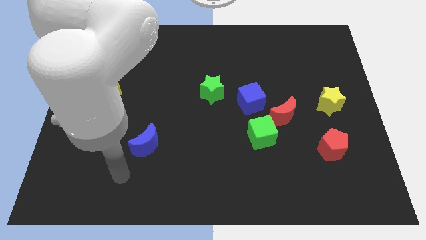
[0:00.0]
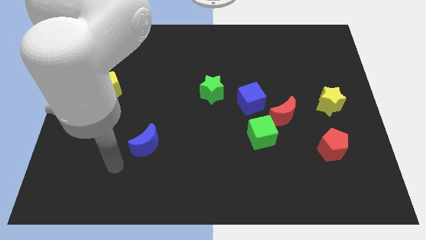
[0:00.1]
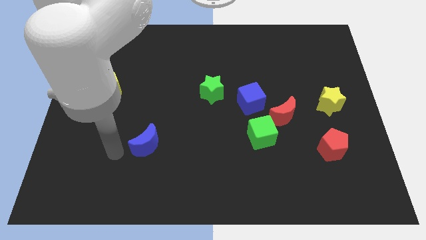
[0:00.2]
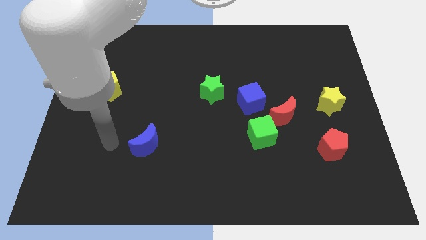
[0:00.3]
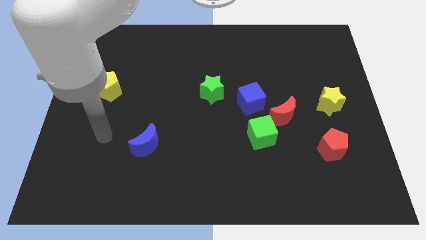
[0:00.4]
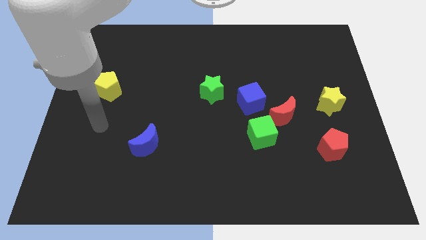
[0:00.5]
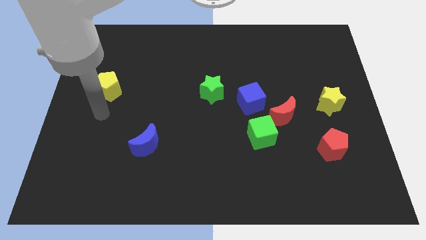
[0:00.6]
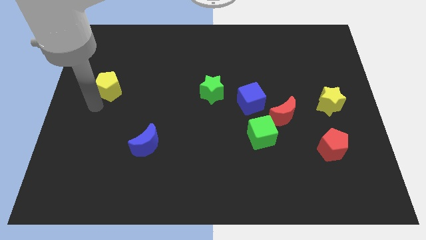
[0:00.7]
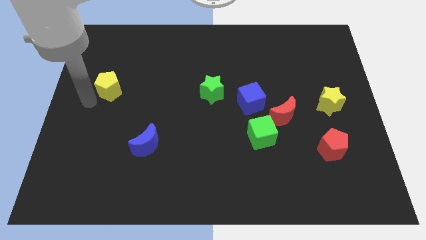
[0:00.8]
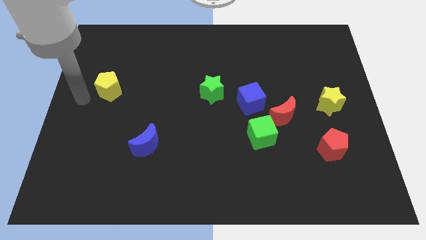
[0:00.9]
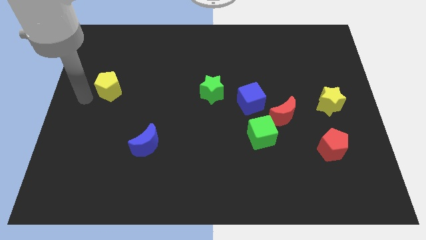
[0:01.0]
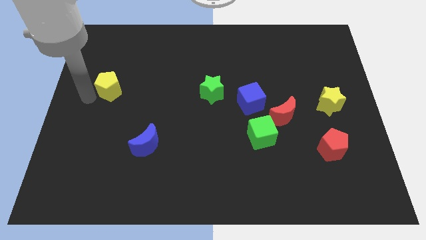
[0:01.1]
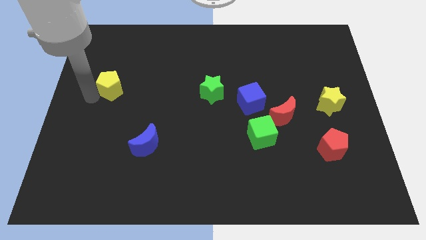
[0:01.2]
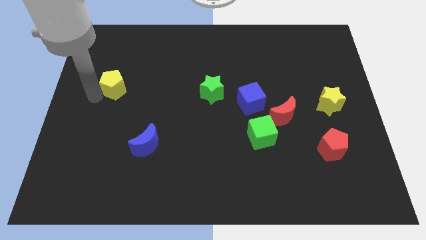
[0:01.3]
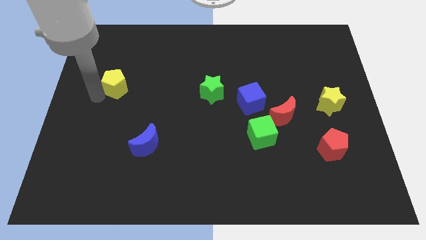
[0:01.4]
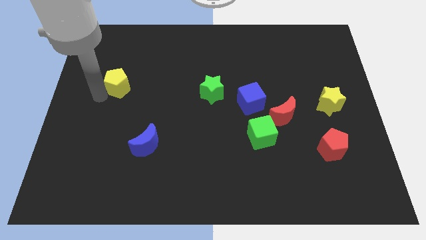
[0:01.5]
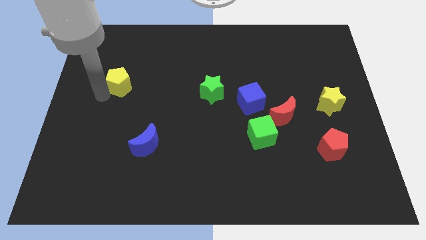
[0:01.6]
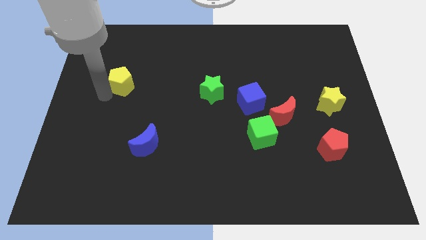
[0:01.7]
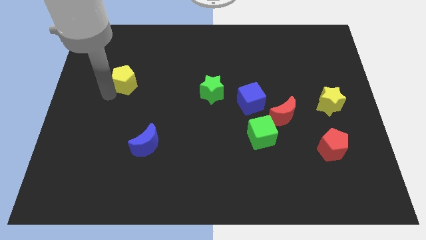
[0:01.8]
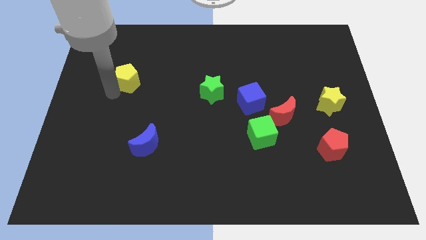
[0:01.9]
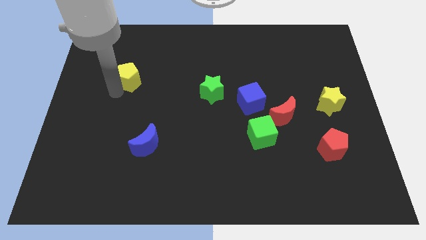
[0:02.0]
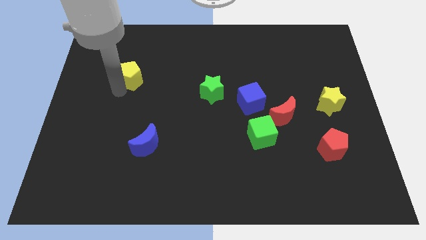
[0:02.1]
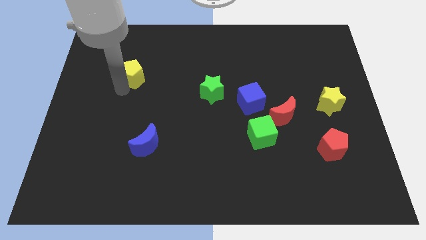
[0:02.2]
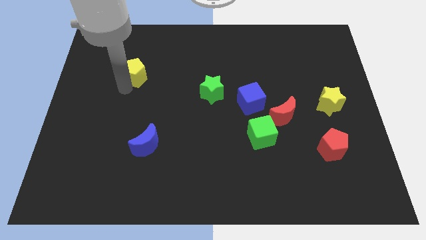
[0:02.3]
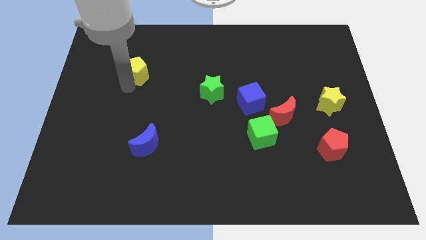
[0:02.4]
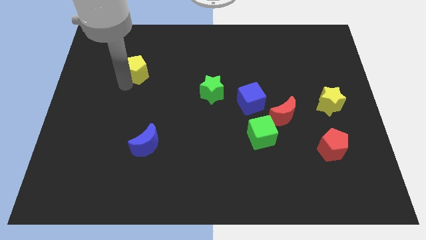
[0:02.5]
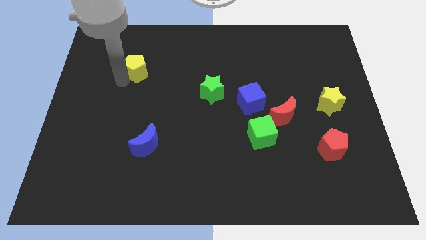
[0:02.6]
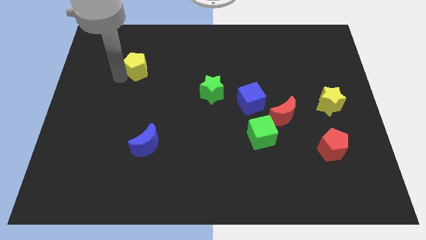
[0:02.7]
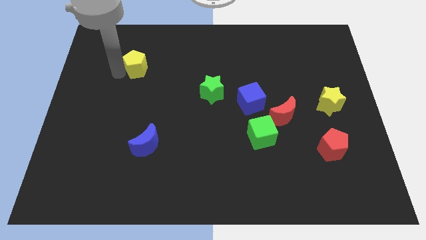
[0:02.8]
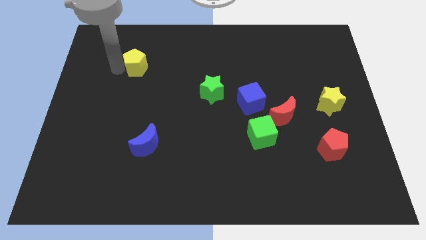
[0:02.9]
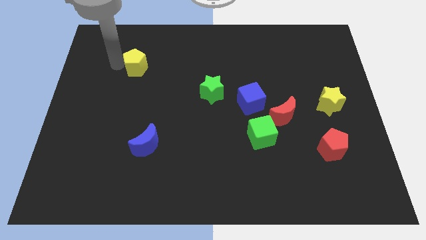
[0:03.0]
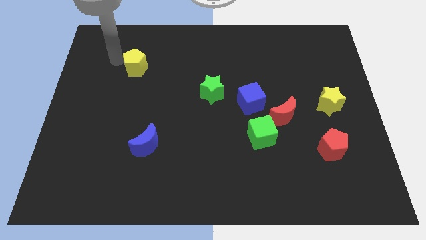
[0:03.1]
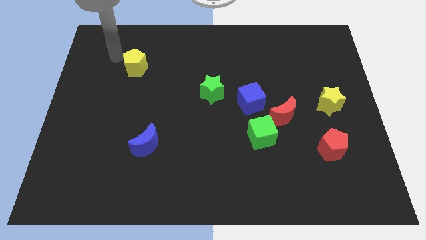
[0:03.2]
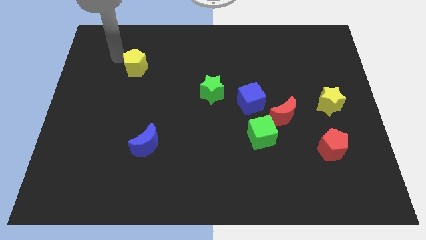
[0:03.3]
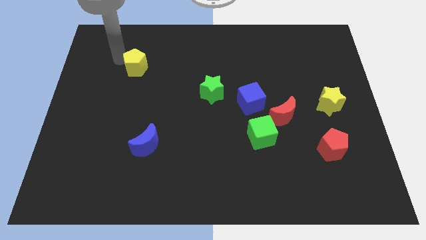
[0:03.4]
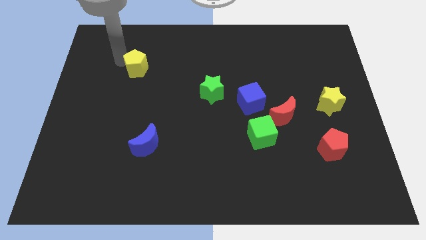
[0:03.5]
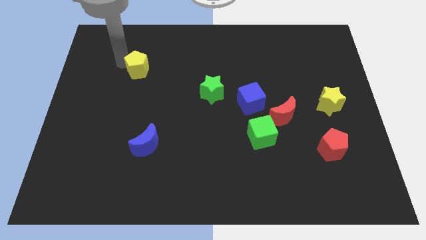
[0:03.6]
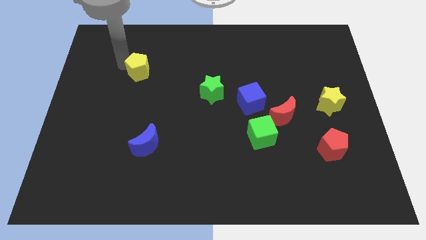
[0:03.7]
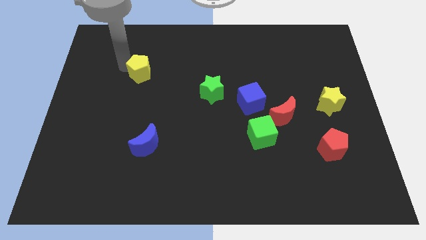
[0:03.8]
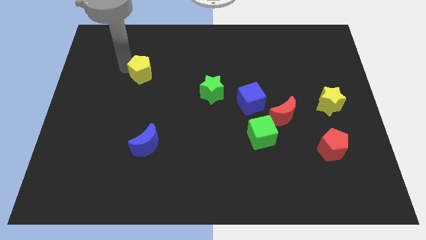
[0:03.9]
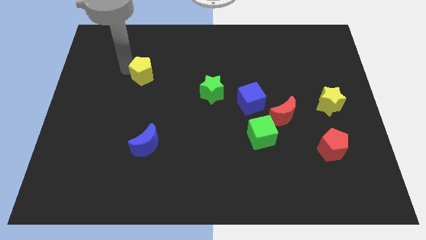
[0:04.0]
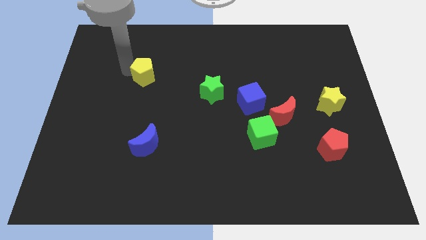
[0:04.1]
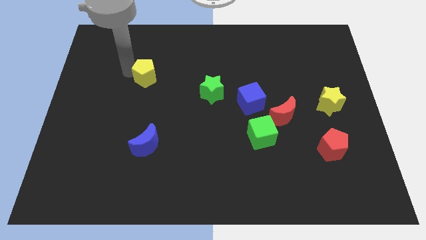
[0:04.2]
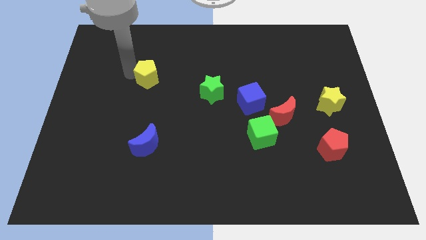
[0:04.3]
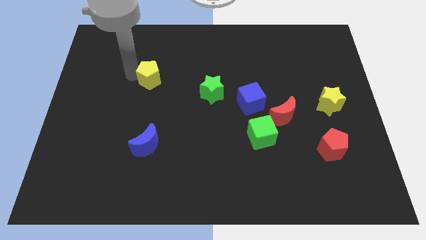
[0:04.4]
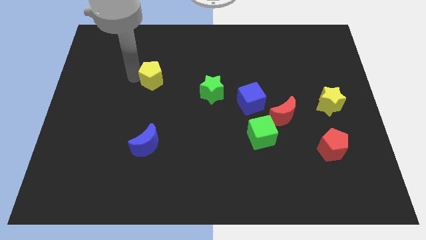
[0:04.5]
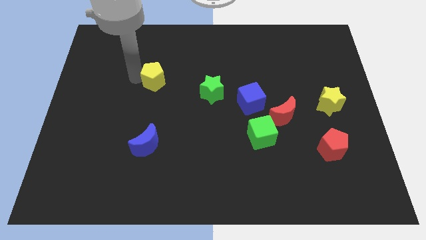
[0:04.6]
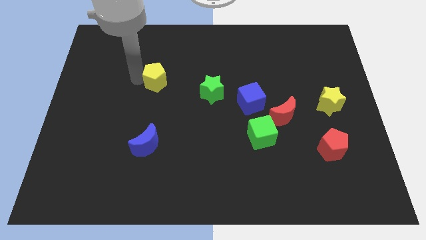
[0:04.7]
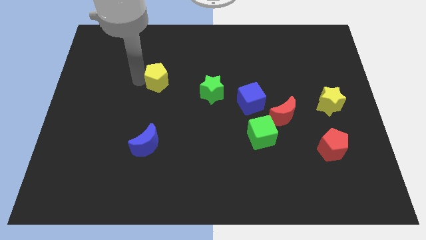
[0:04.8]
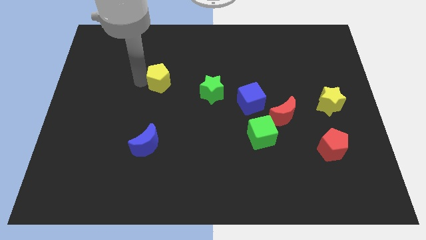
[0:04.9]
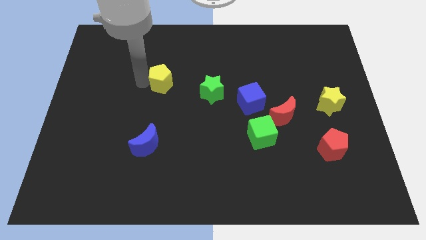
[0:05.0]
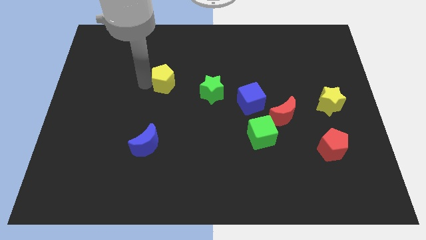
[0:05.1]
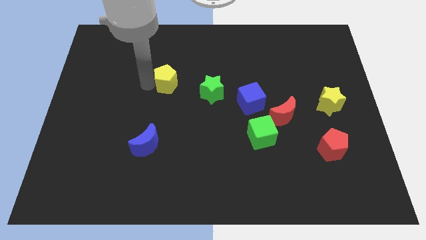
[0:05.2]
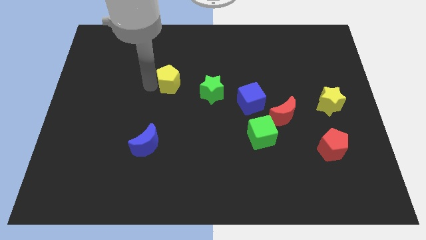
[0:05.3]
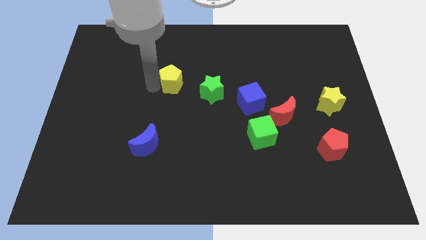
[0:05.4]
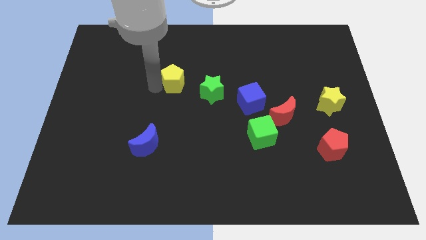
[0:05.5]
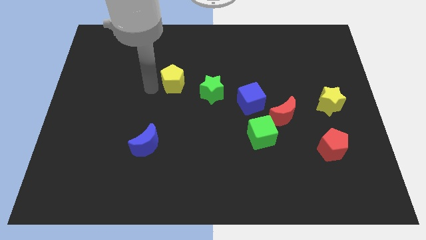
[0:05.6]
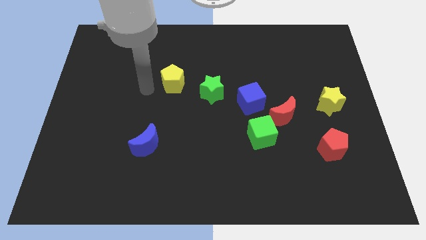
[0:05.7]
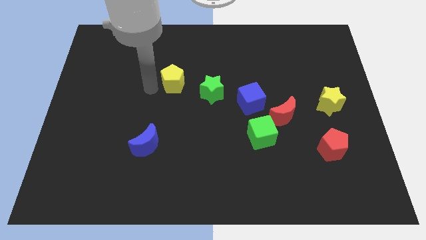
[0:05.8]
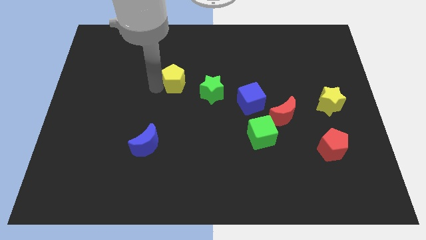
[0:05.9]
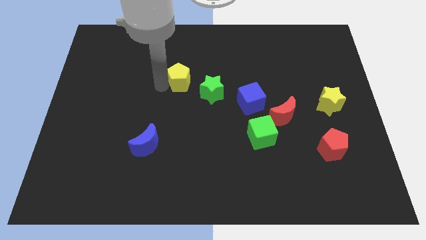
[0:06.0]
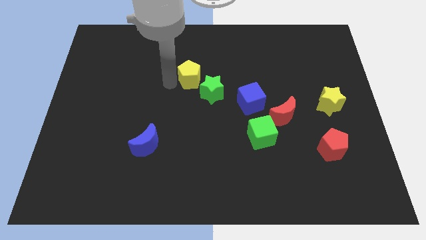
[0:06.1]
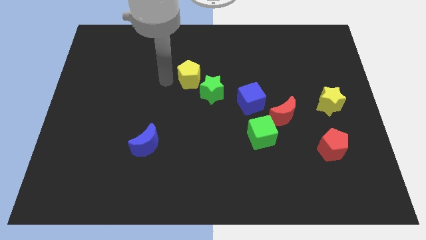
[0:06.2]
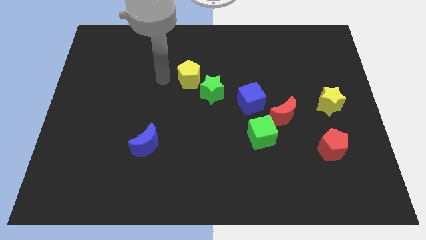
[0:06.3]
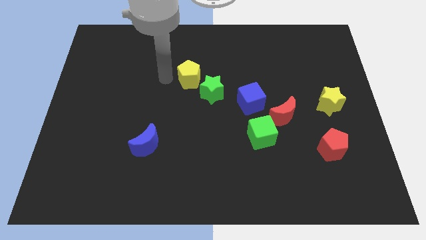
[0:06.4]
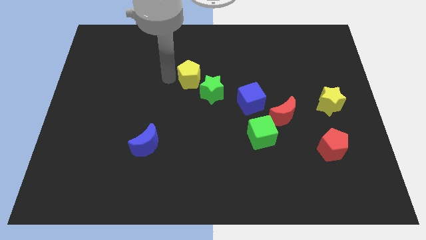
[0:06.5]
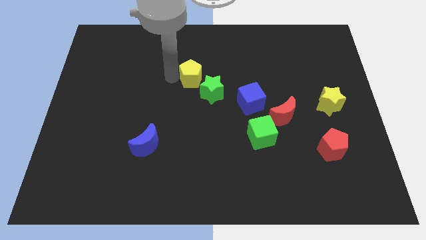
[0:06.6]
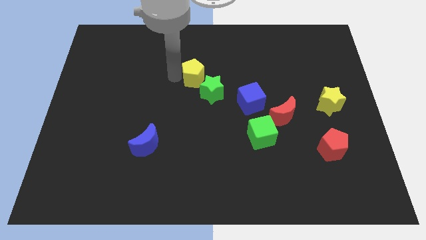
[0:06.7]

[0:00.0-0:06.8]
slide the yellow pentagon right

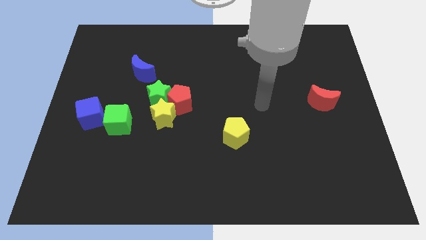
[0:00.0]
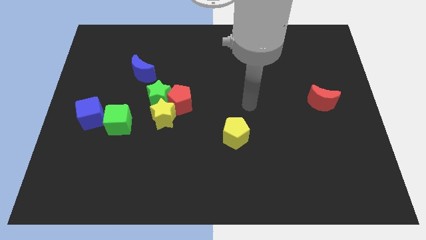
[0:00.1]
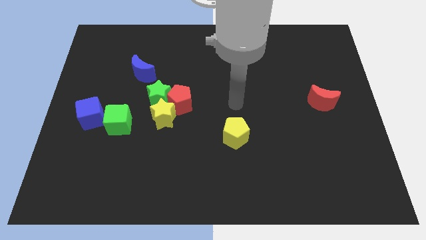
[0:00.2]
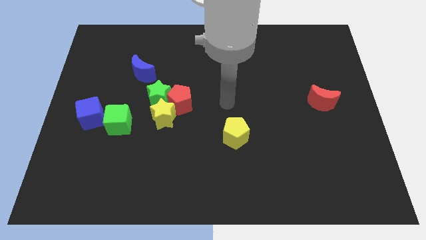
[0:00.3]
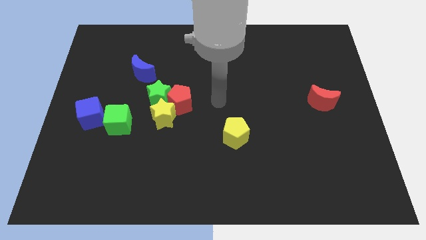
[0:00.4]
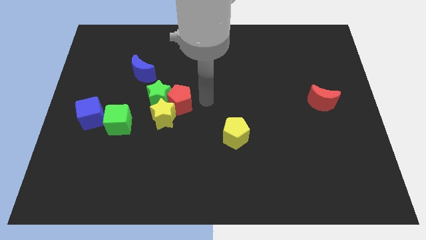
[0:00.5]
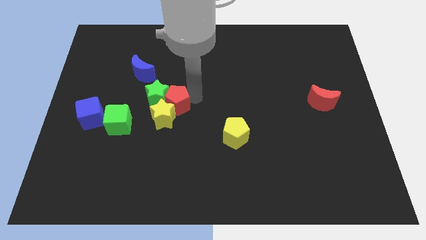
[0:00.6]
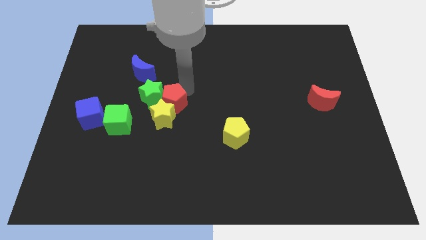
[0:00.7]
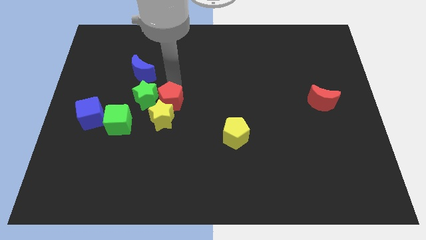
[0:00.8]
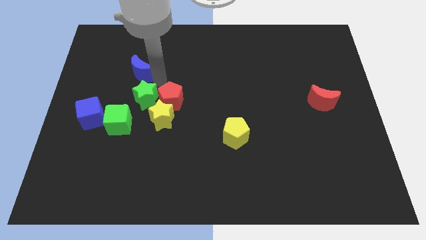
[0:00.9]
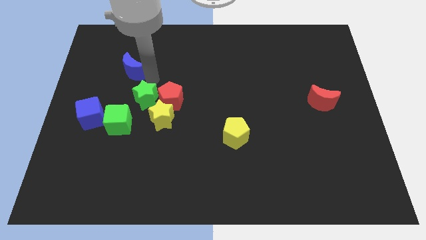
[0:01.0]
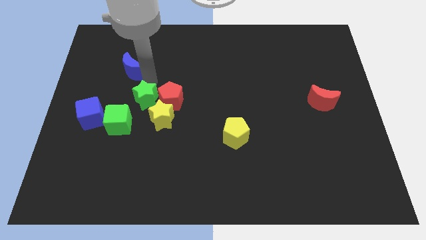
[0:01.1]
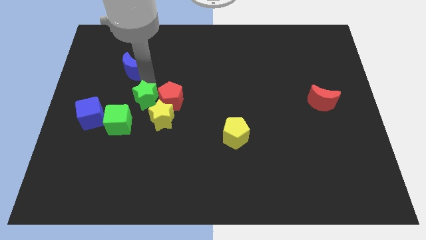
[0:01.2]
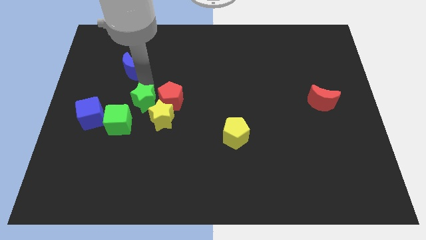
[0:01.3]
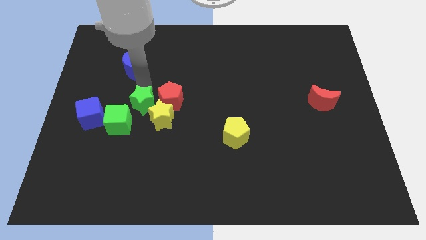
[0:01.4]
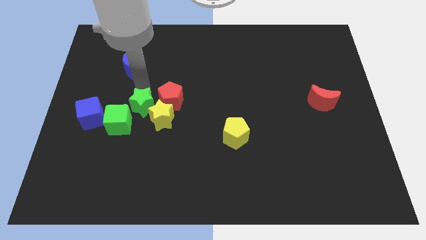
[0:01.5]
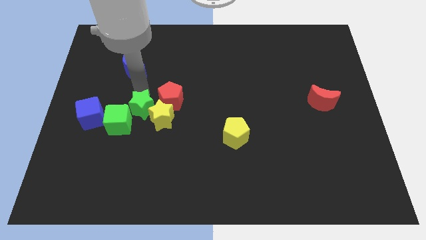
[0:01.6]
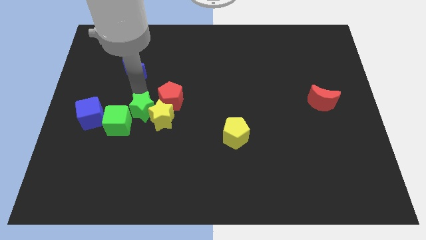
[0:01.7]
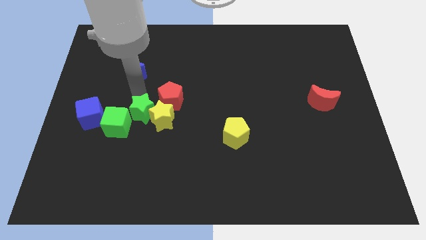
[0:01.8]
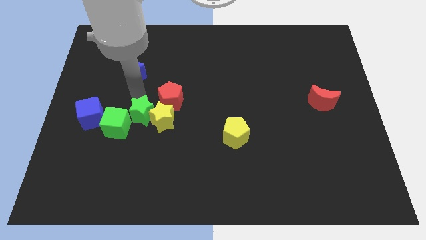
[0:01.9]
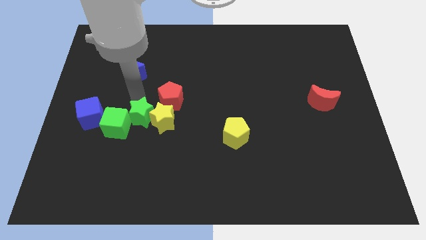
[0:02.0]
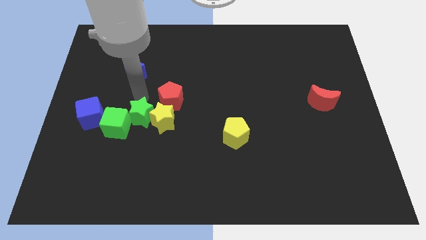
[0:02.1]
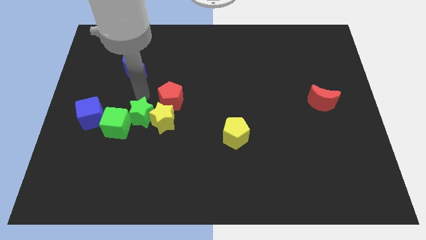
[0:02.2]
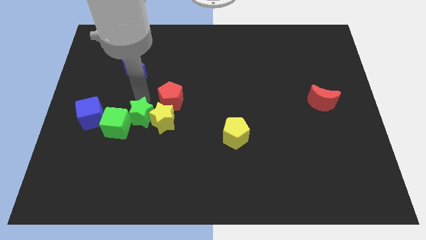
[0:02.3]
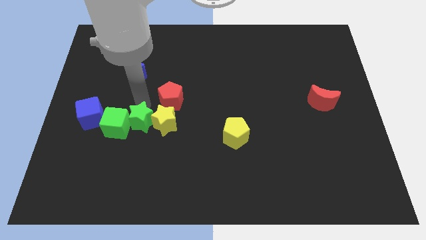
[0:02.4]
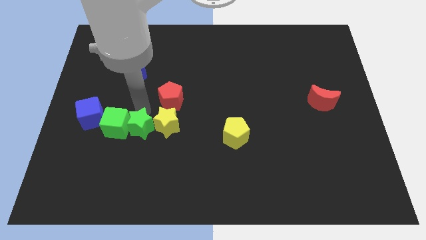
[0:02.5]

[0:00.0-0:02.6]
slide the green star down a bit
